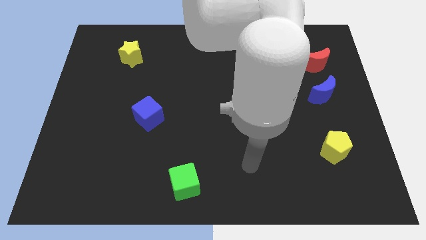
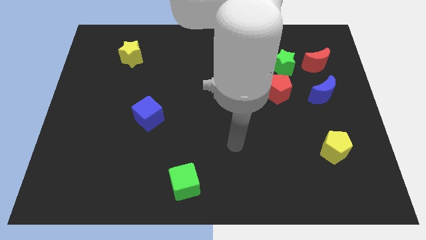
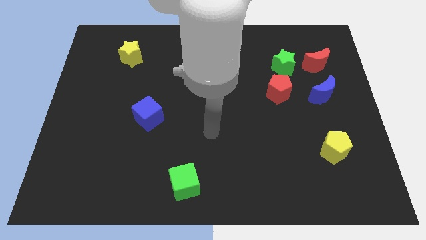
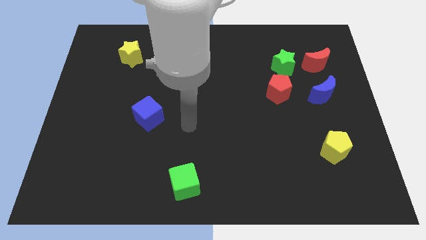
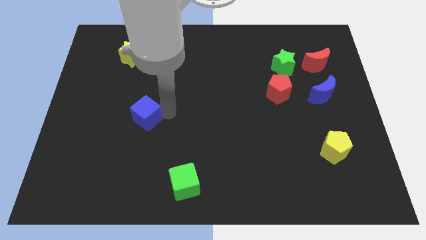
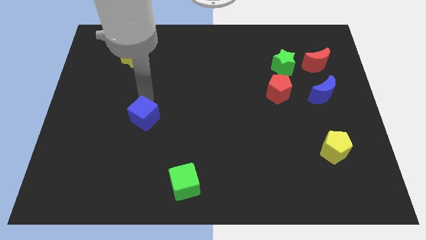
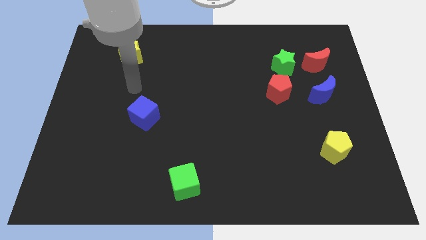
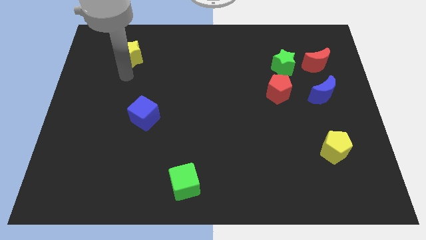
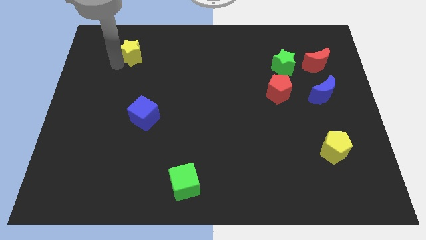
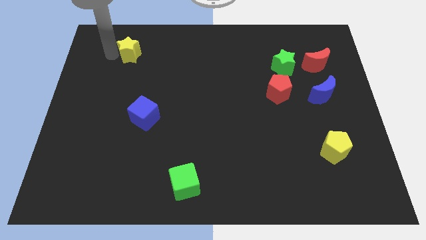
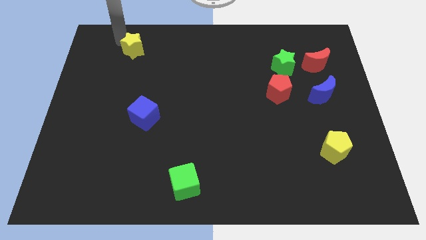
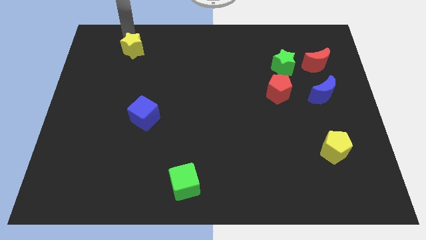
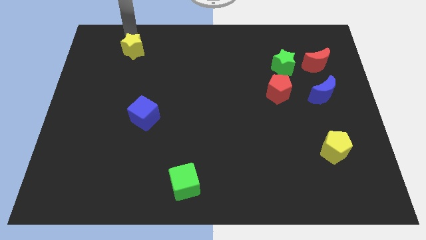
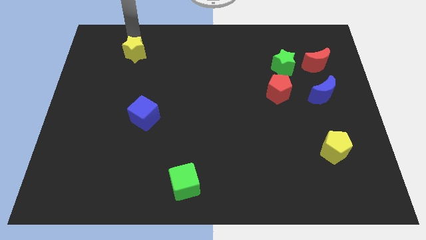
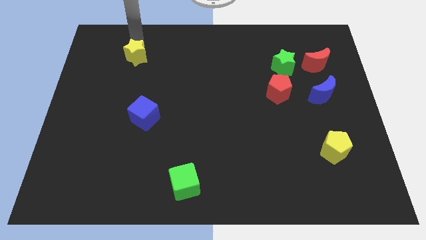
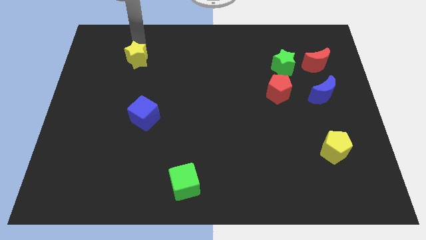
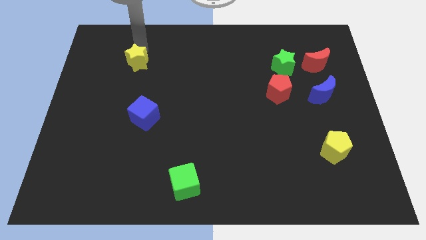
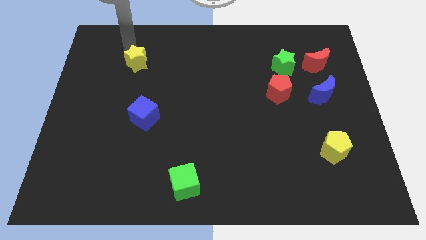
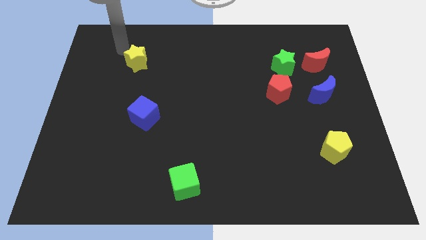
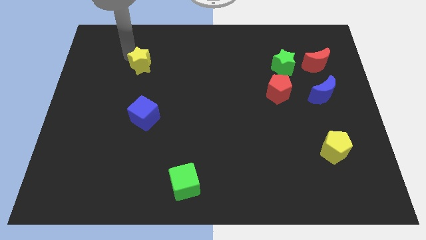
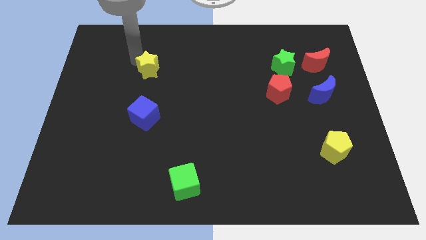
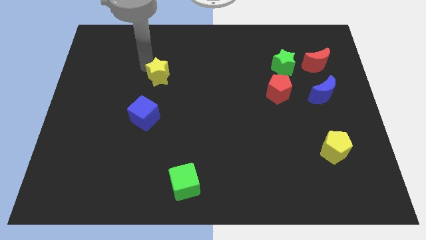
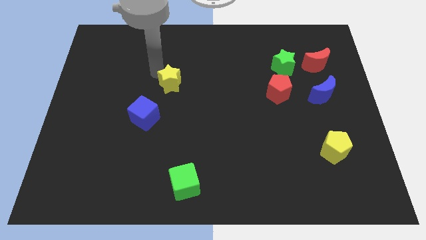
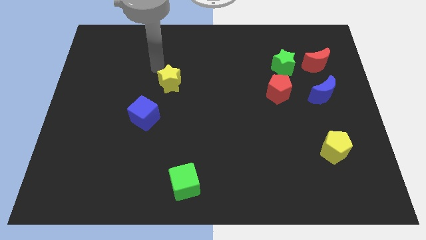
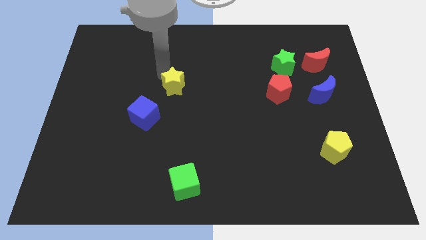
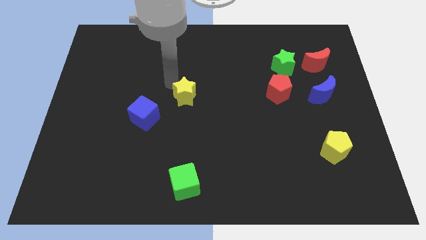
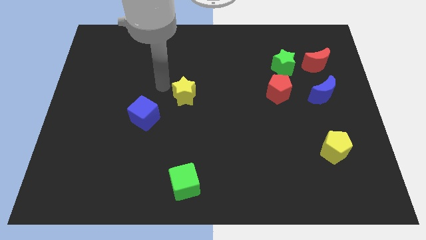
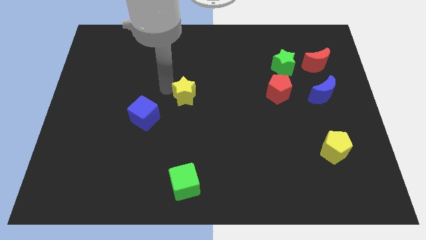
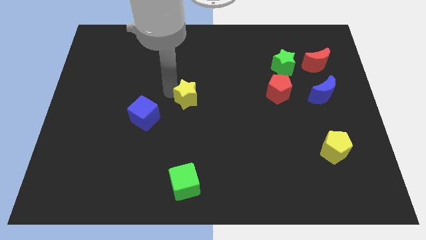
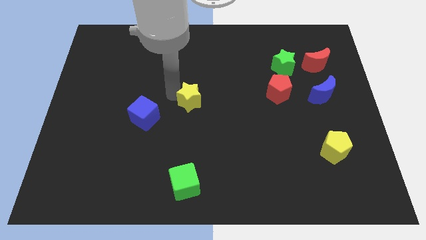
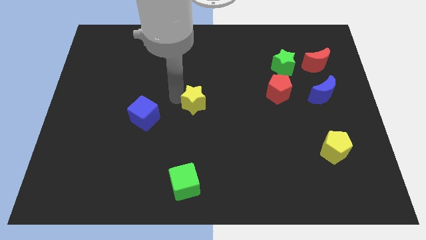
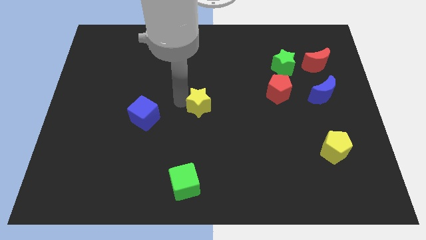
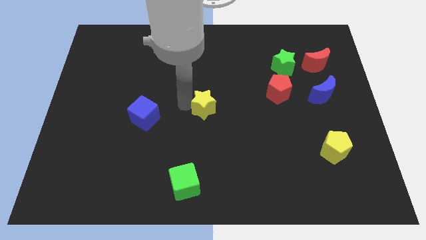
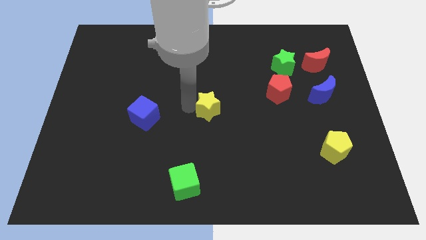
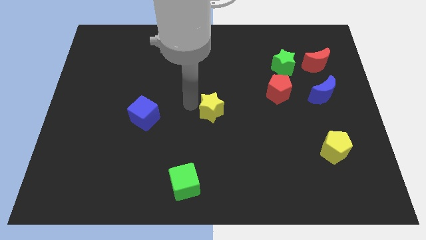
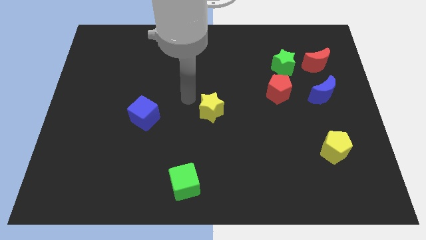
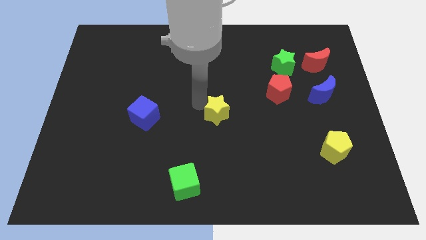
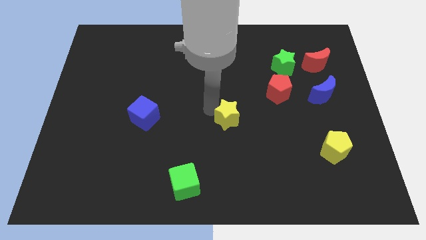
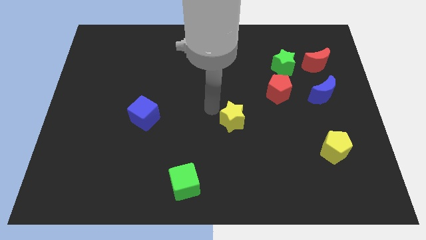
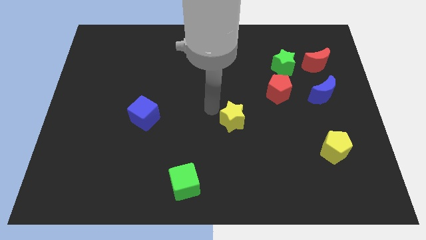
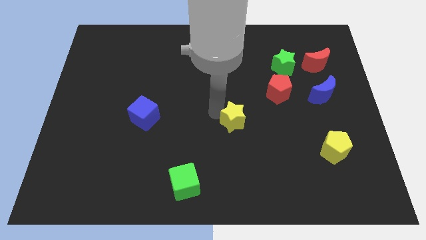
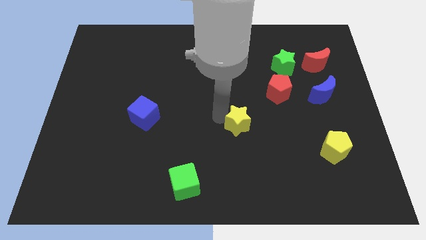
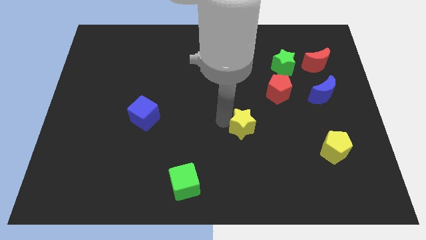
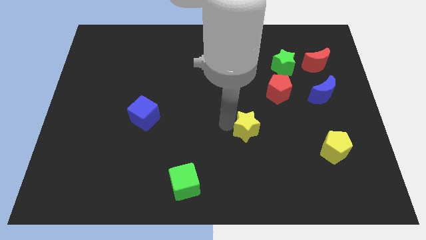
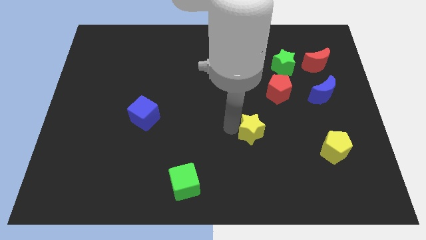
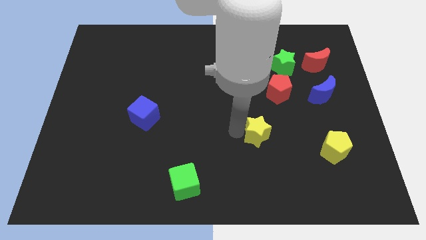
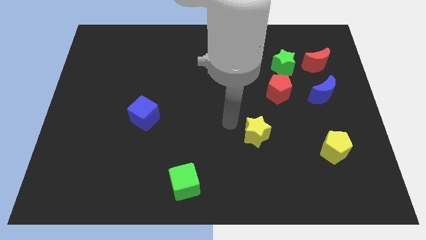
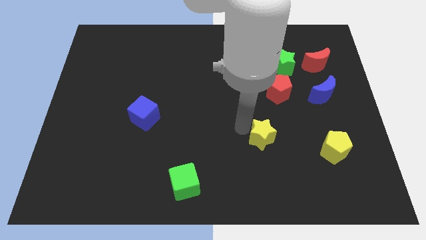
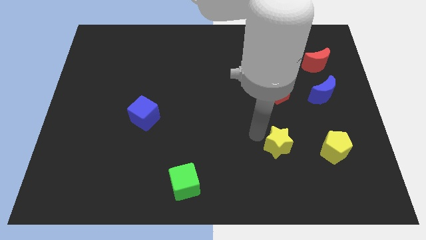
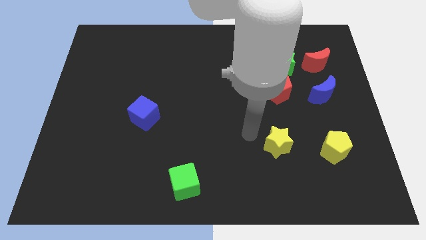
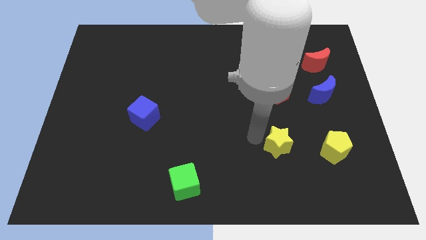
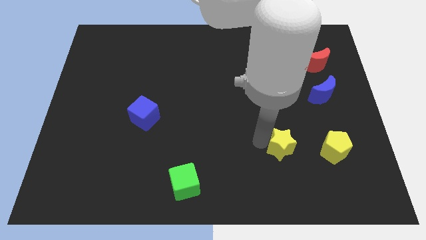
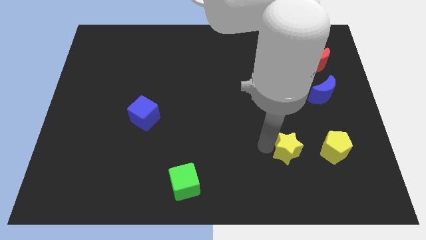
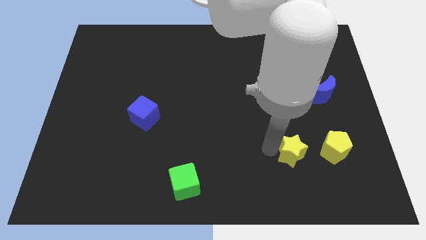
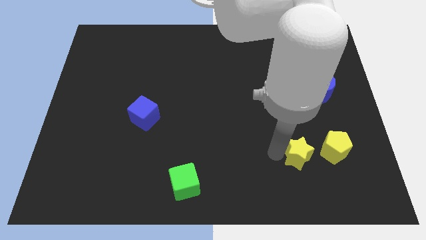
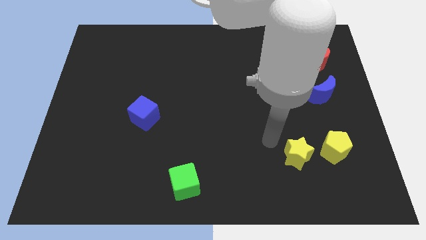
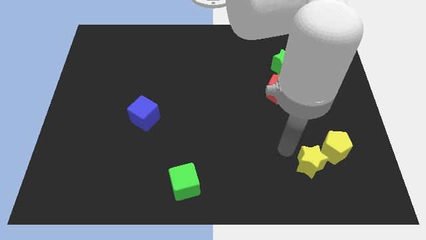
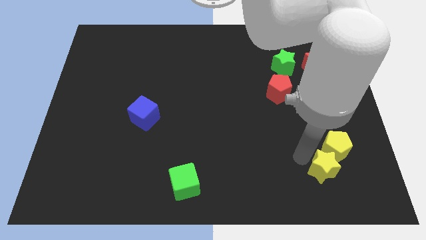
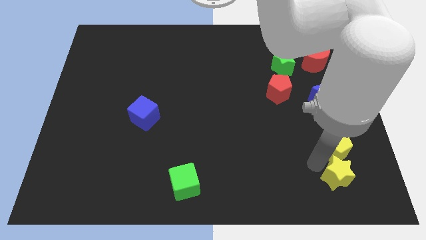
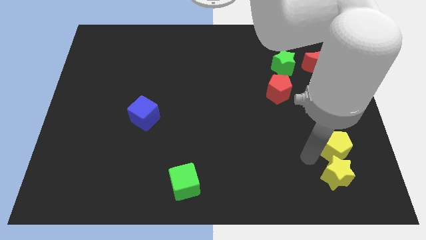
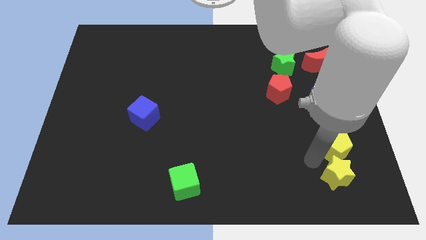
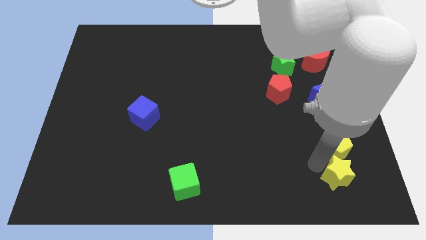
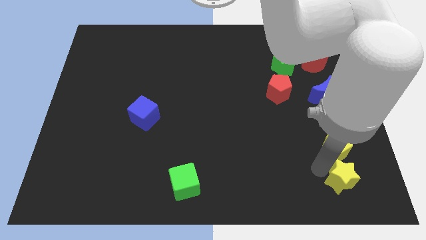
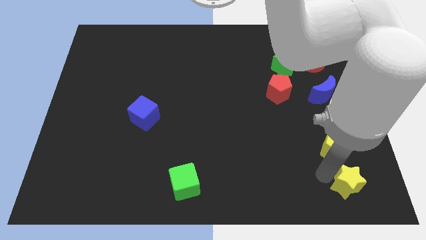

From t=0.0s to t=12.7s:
push the yellow star to the bottom right

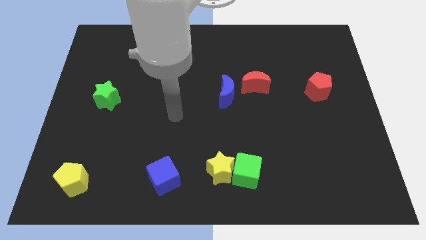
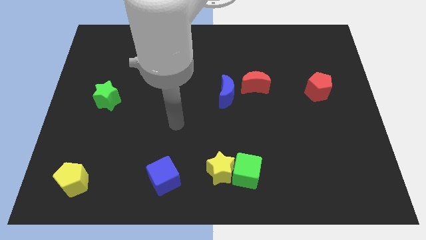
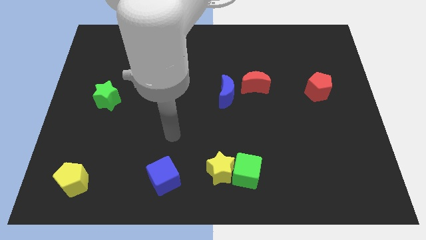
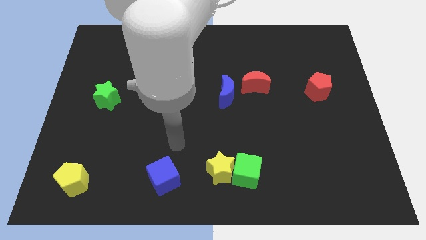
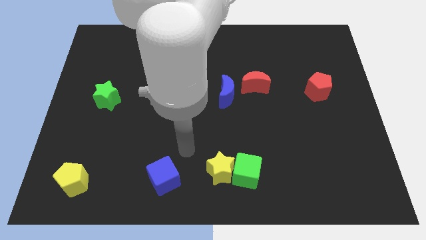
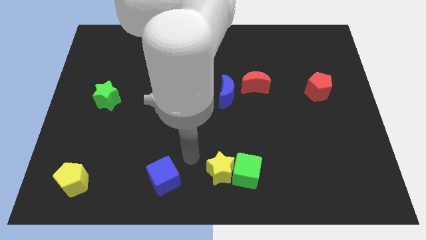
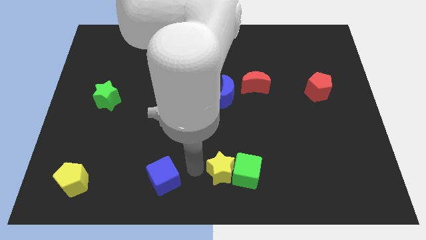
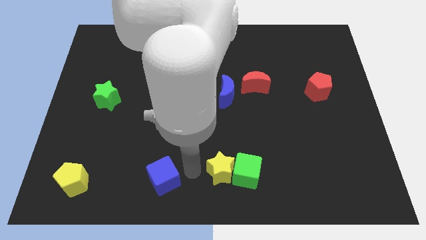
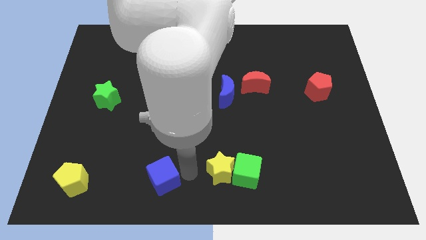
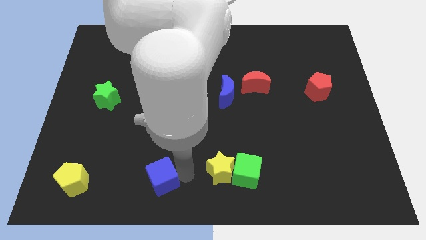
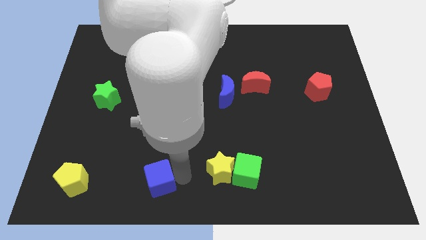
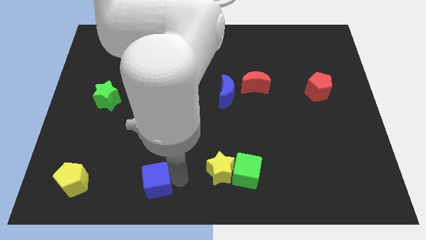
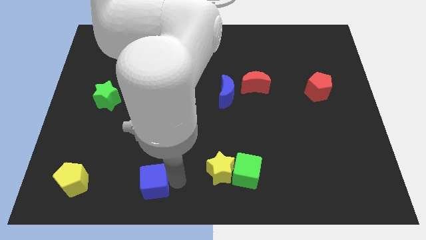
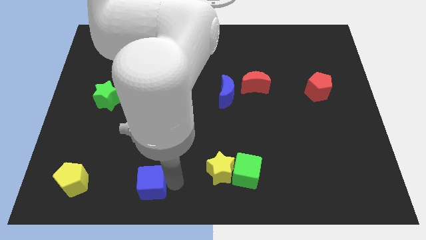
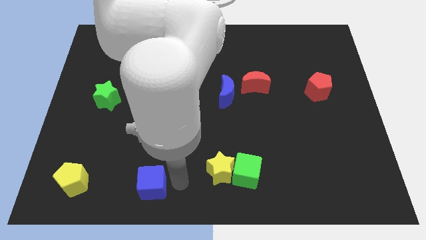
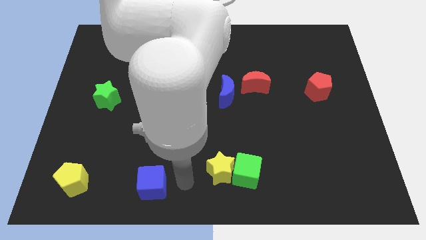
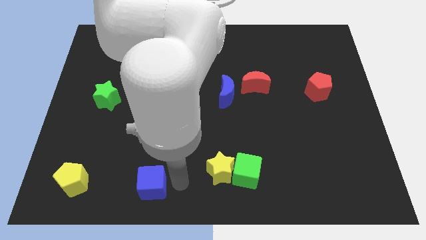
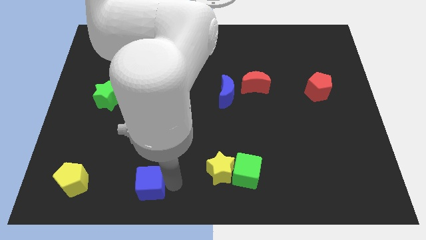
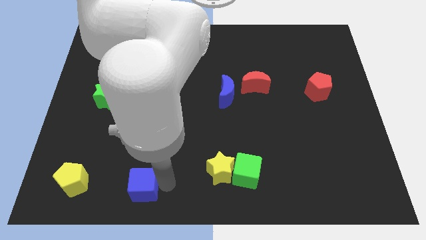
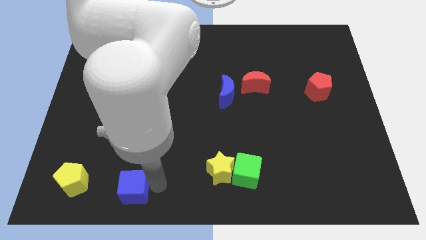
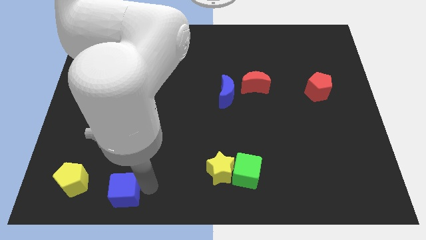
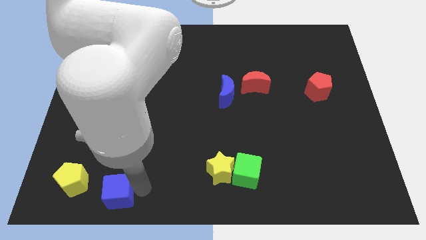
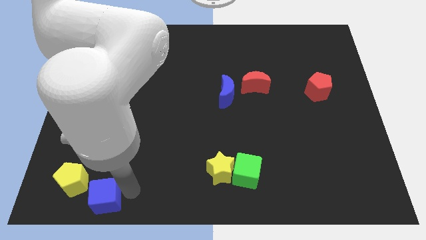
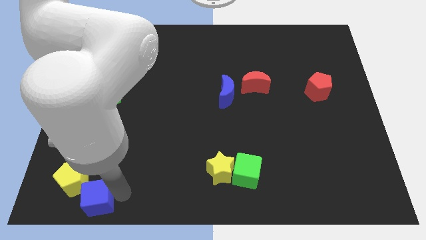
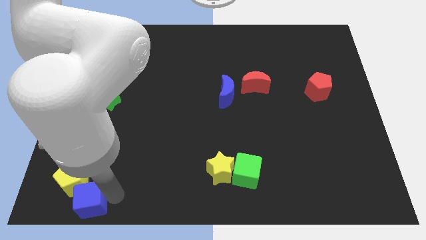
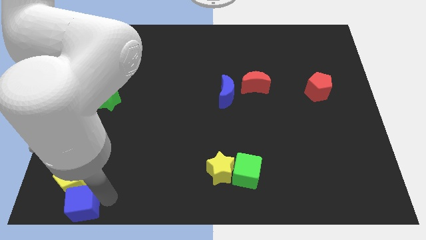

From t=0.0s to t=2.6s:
put the blue cube to the bottom left of the board
